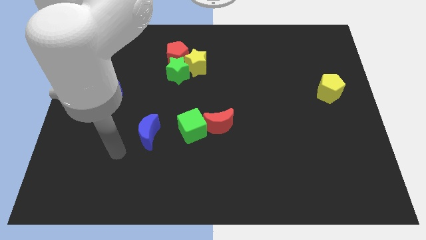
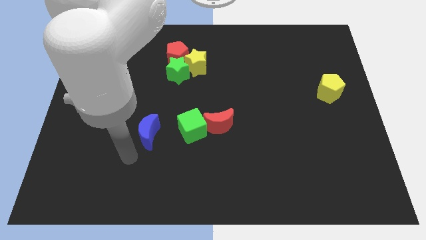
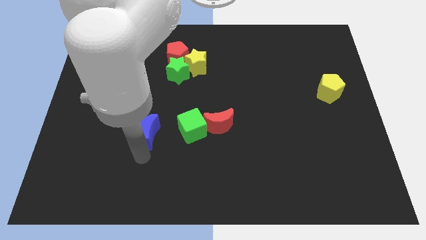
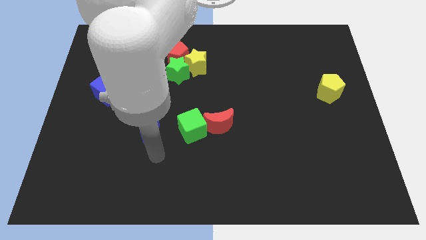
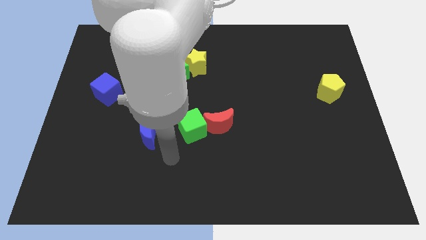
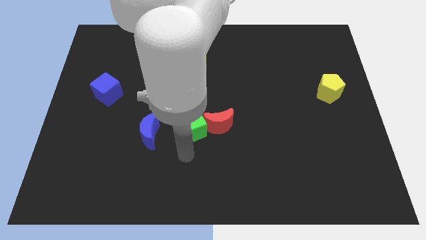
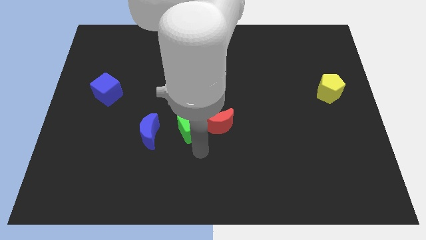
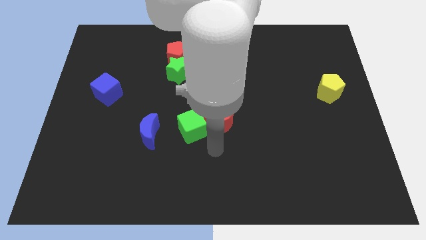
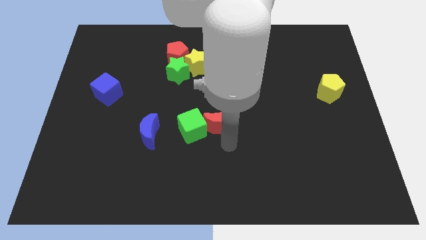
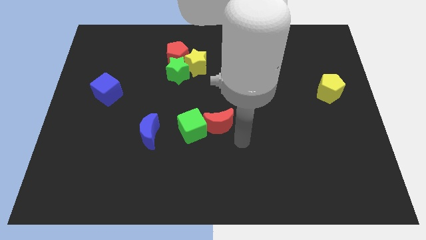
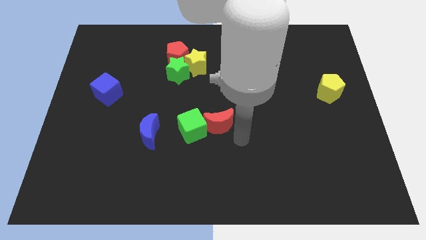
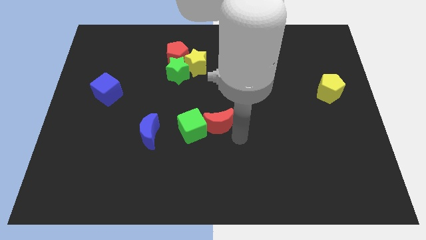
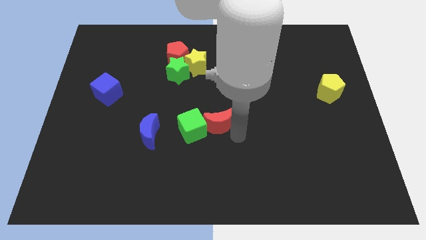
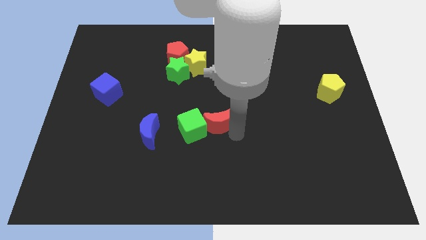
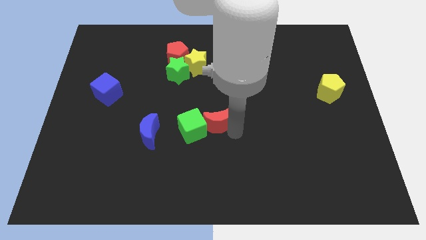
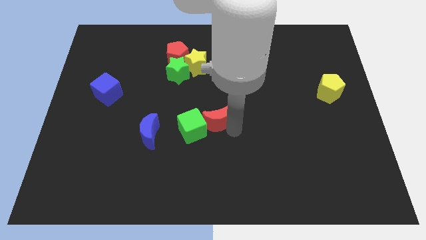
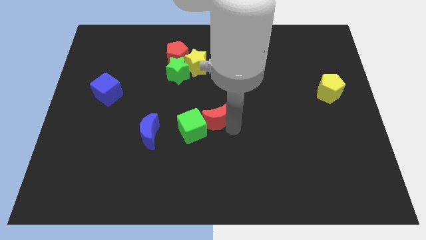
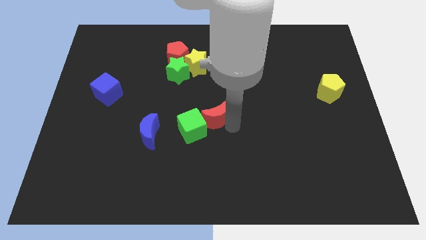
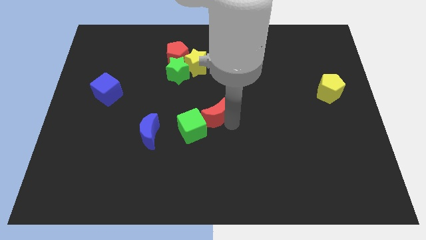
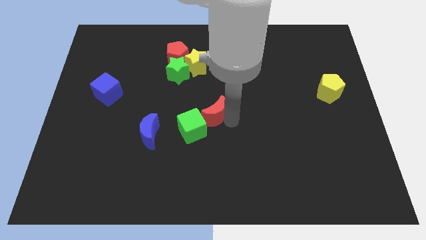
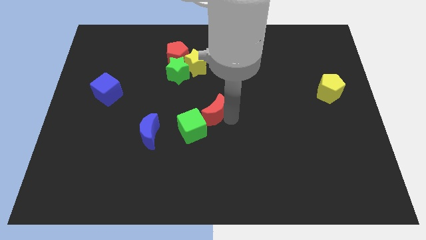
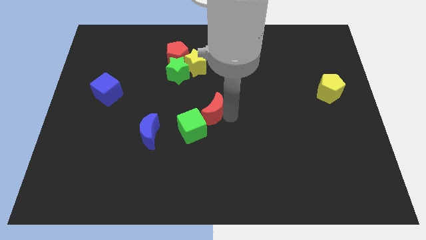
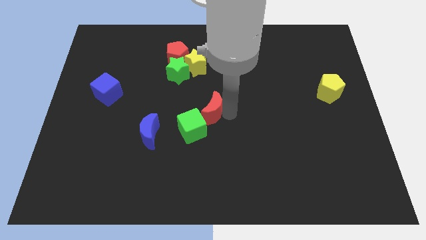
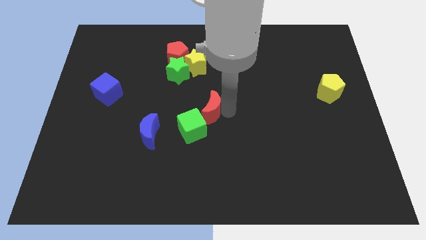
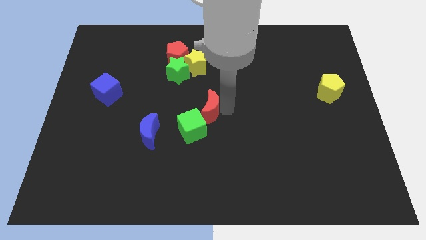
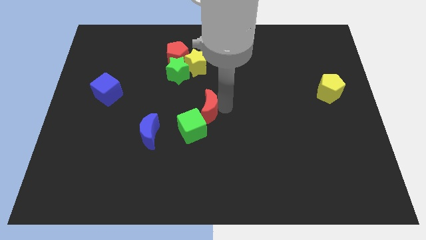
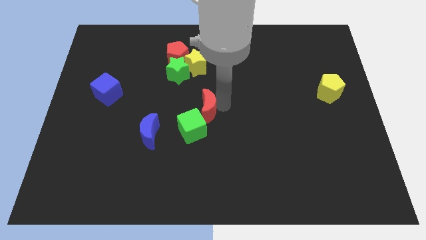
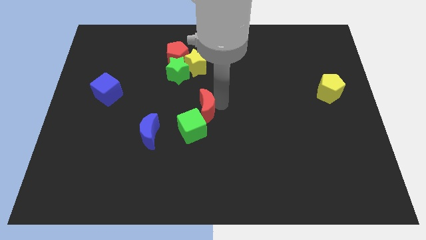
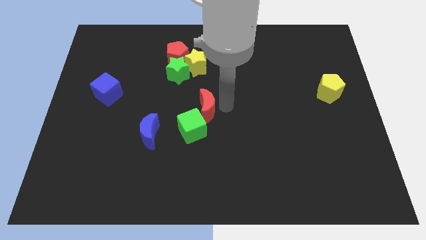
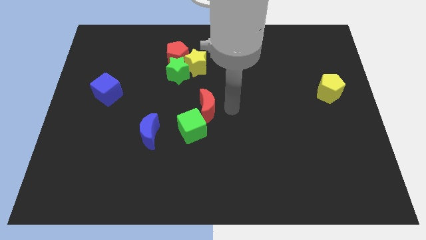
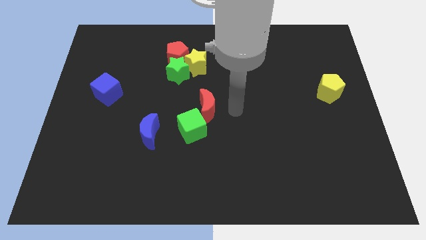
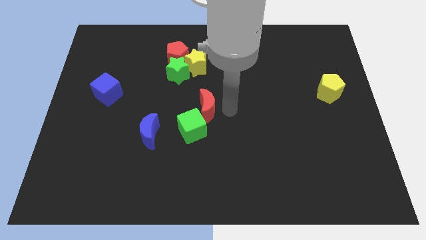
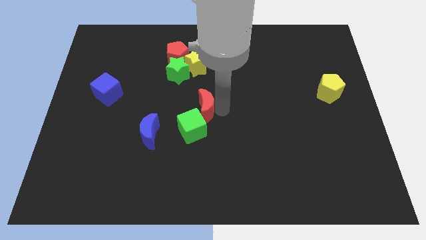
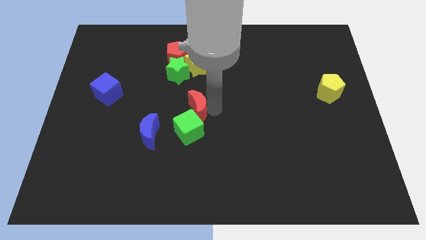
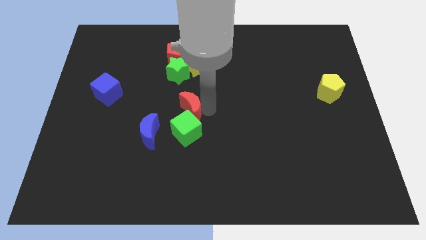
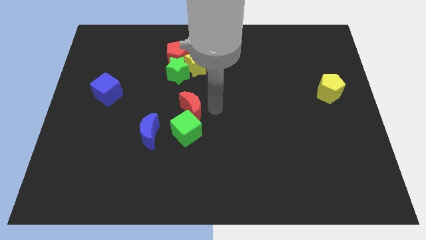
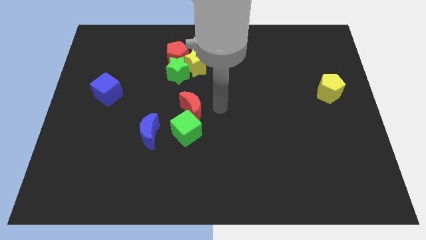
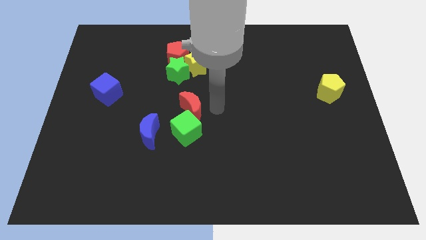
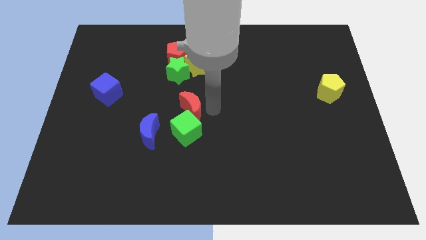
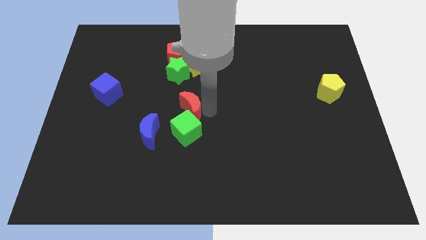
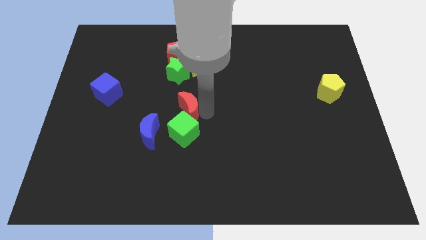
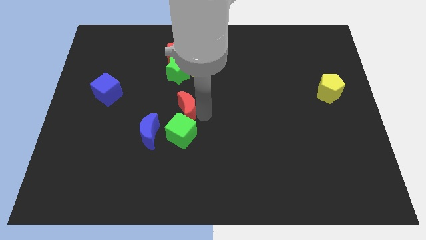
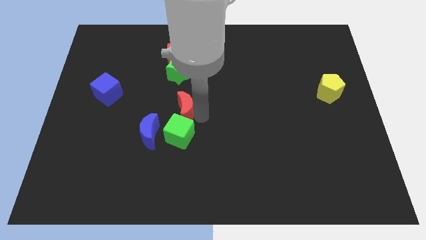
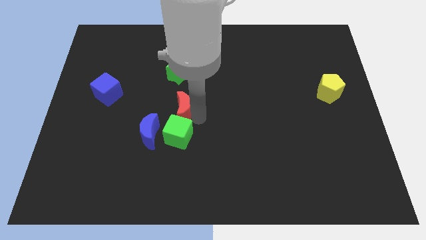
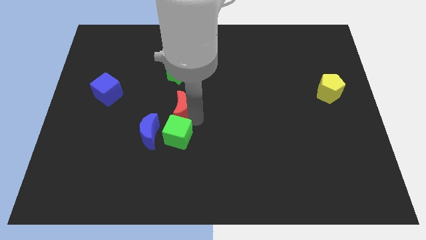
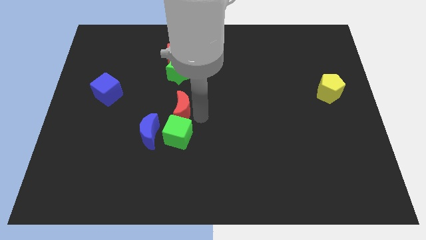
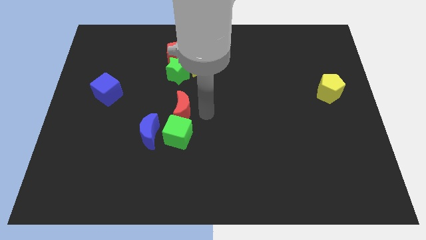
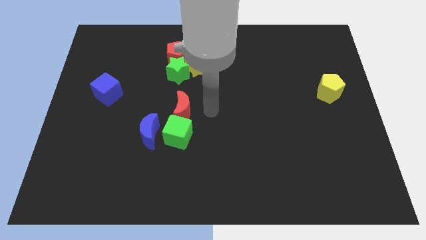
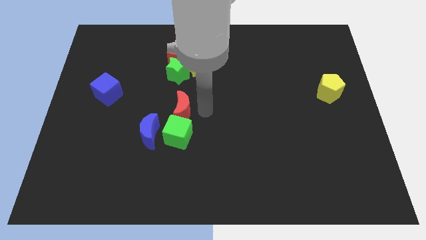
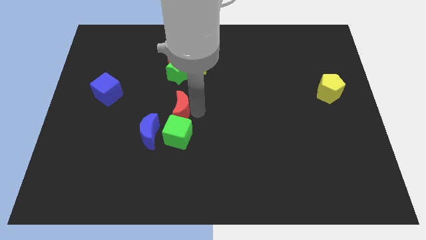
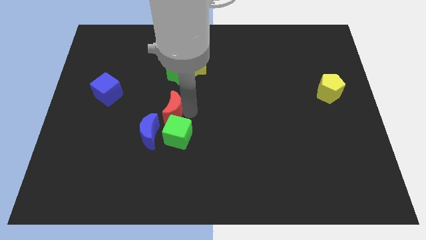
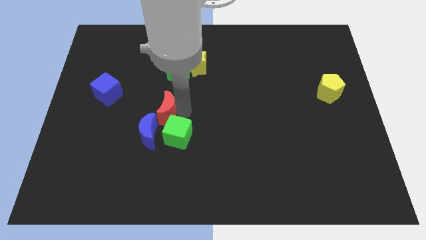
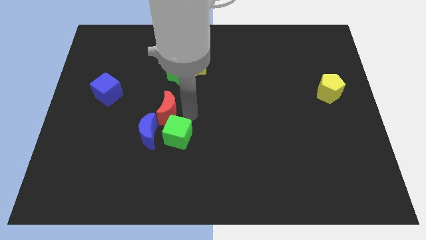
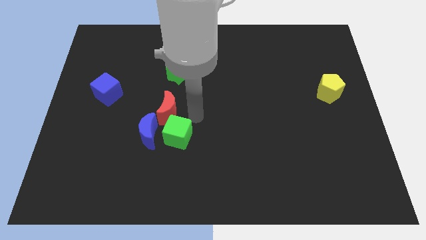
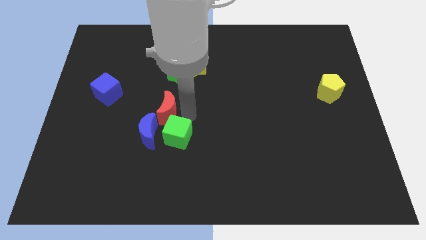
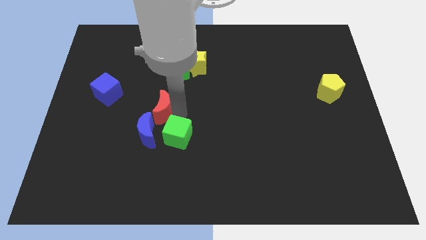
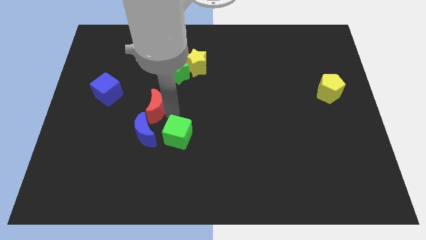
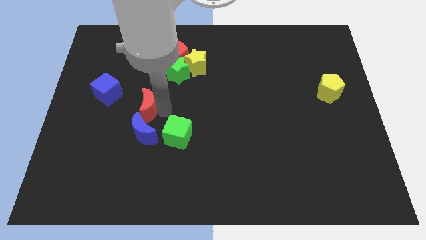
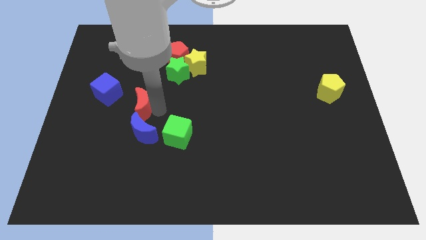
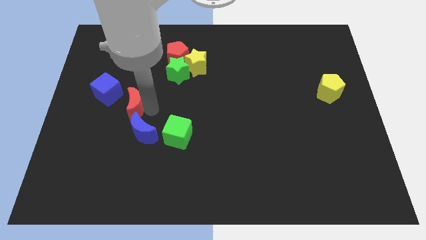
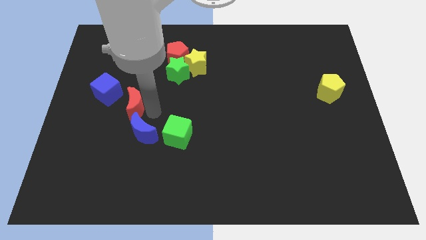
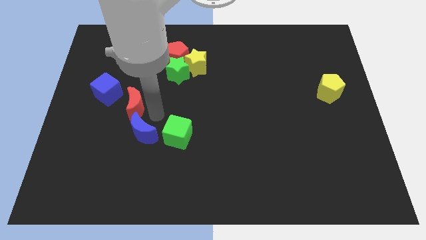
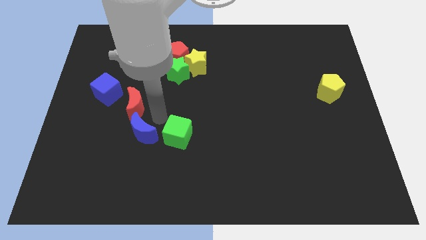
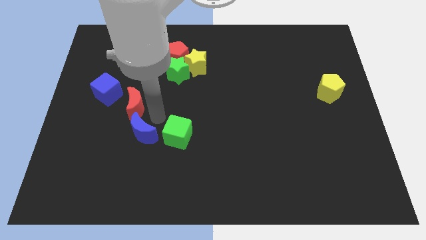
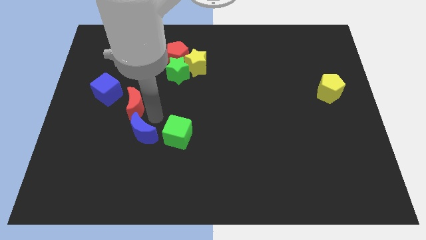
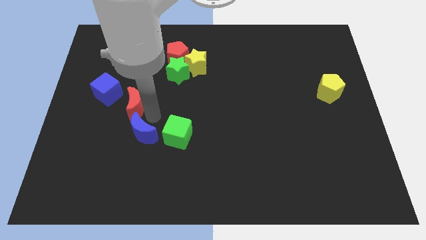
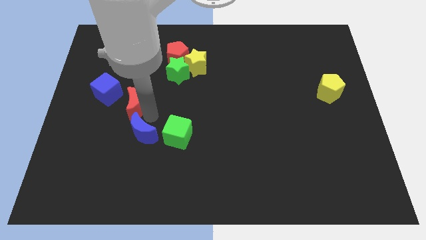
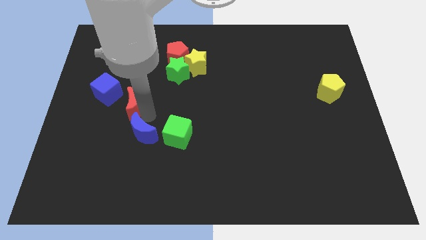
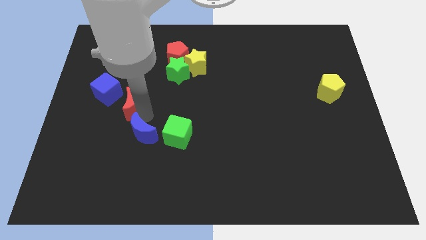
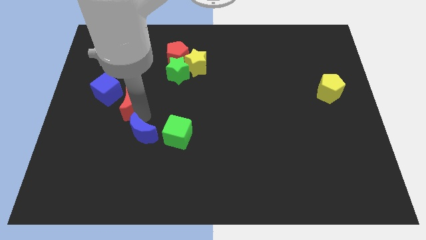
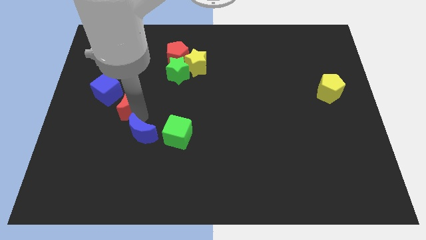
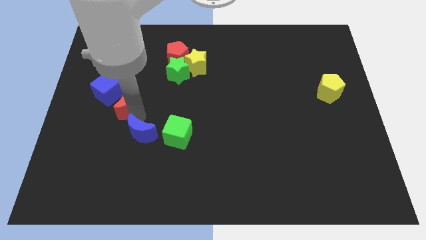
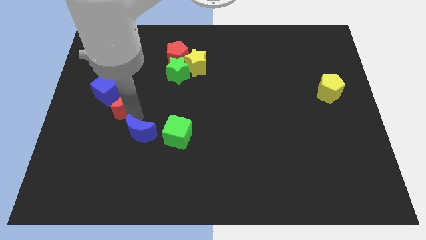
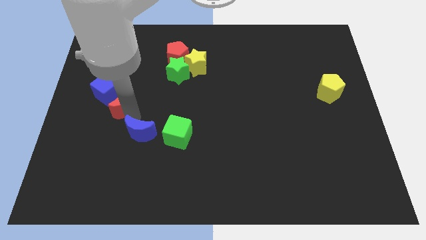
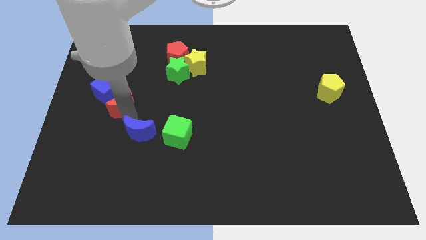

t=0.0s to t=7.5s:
move the red moon close to the blue cube

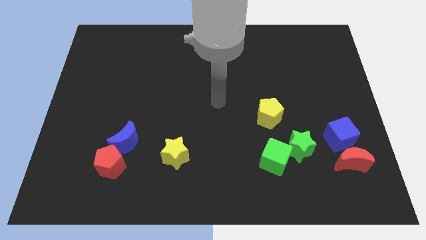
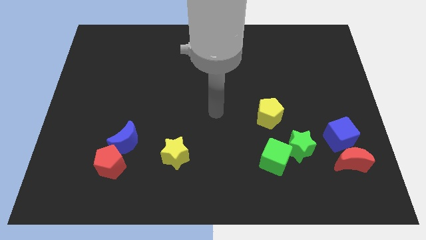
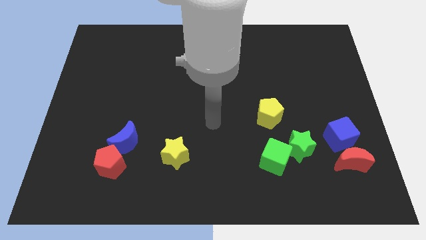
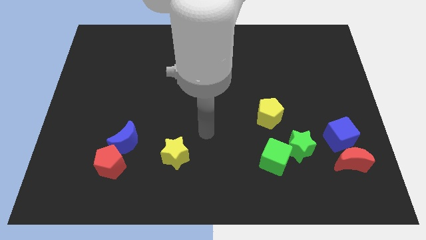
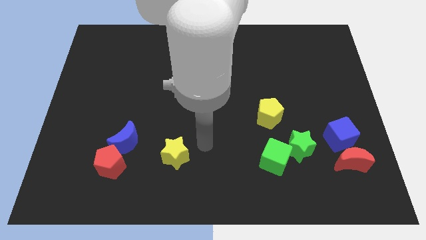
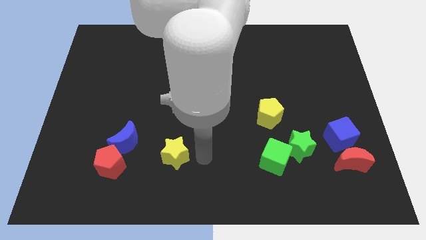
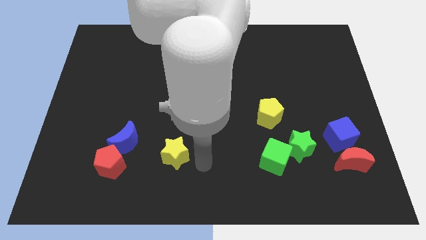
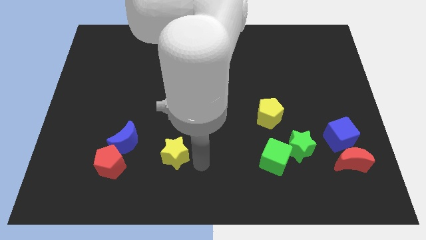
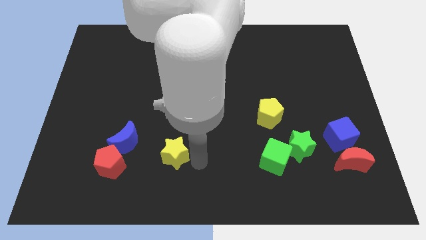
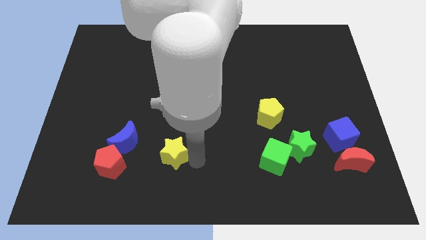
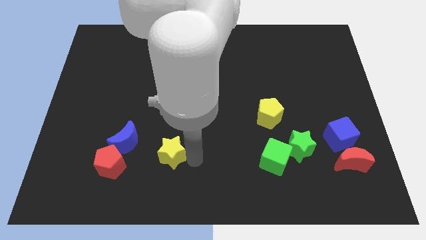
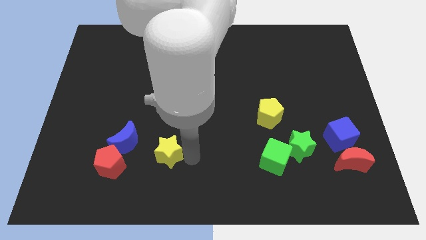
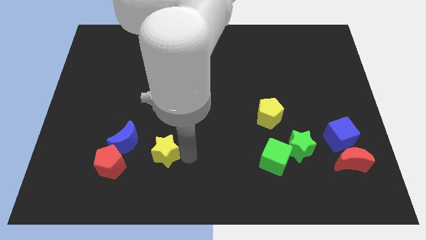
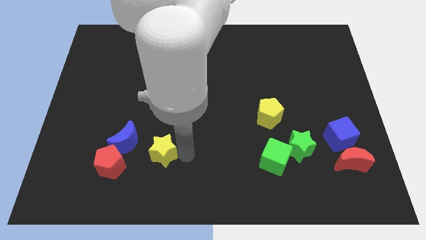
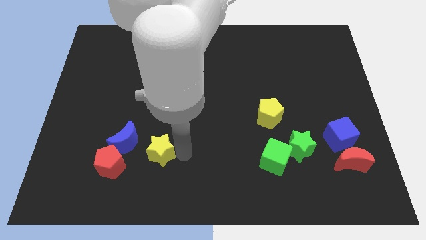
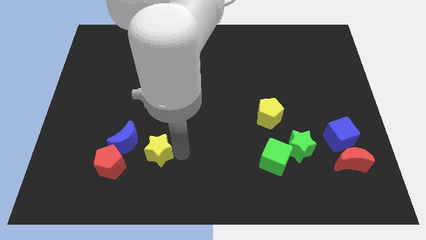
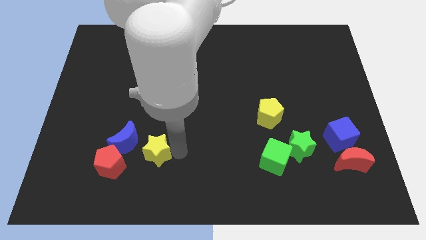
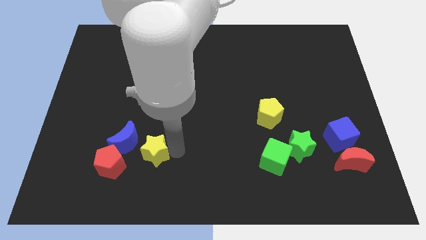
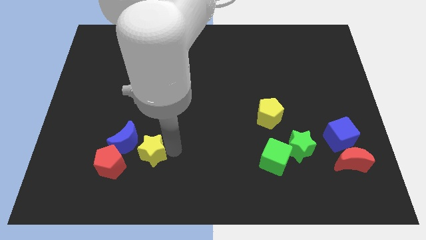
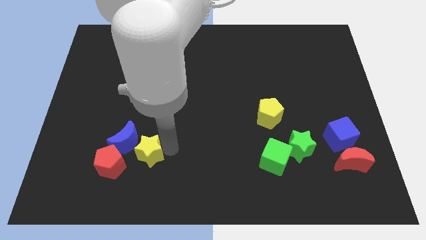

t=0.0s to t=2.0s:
push the yellow star to the blue moon
